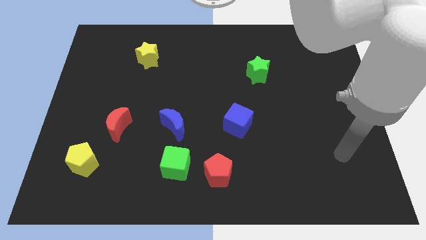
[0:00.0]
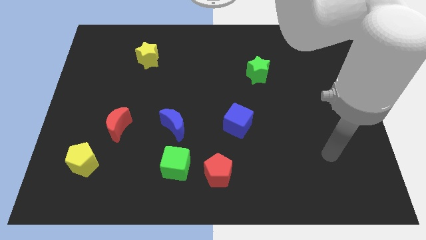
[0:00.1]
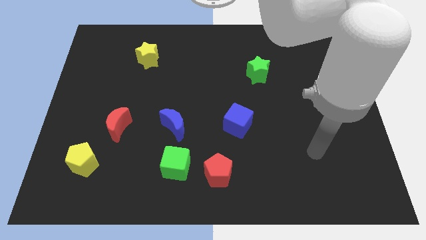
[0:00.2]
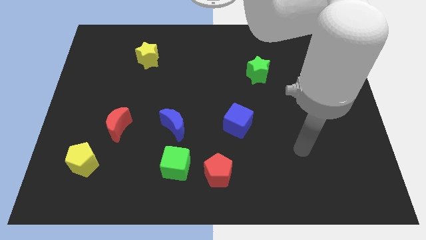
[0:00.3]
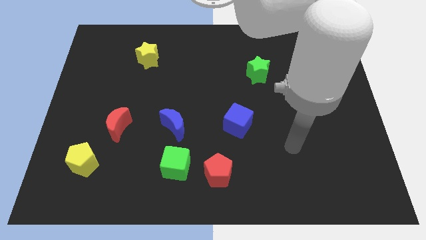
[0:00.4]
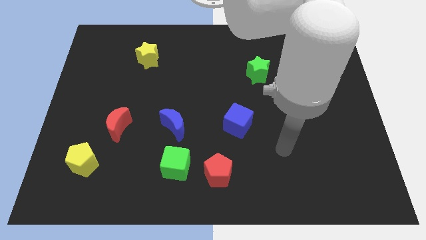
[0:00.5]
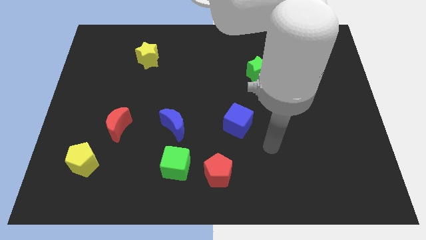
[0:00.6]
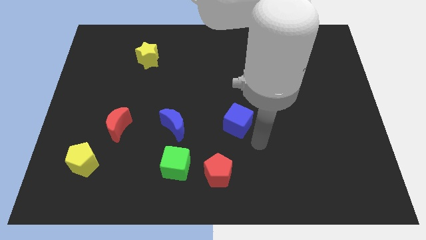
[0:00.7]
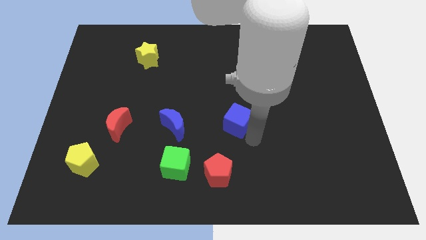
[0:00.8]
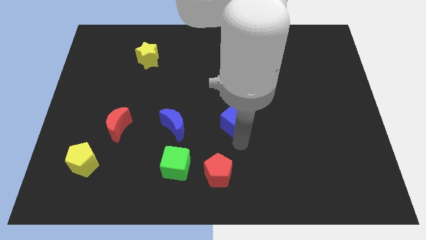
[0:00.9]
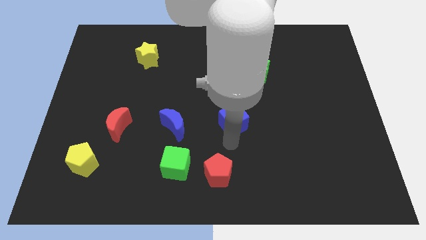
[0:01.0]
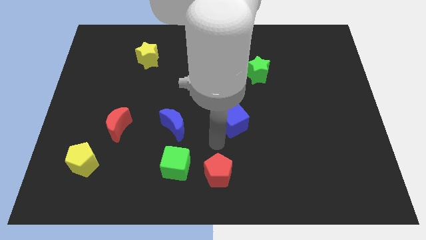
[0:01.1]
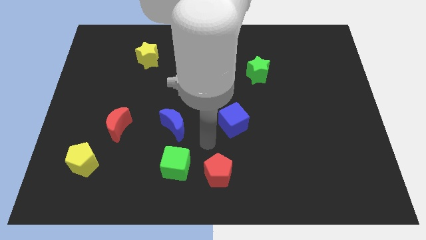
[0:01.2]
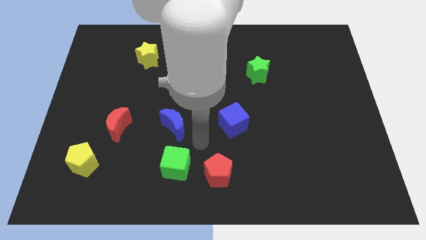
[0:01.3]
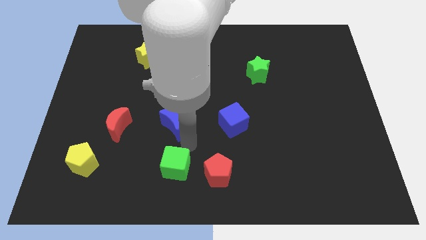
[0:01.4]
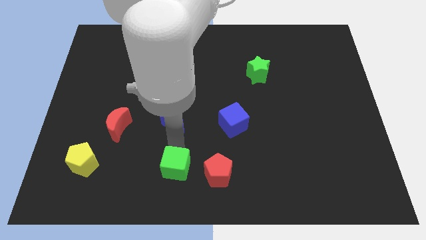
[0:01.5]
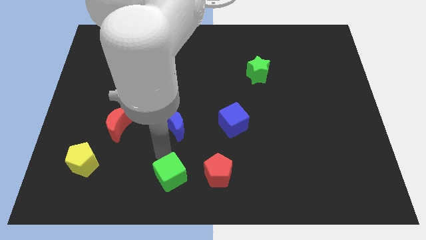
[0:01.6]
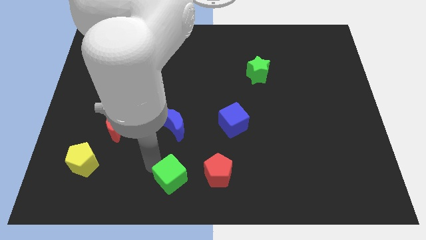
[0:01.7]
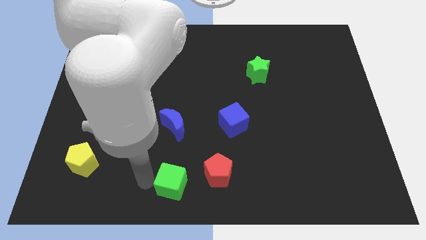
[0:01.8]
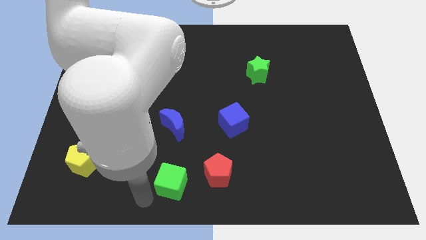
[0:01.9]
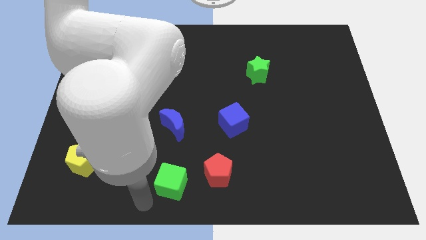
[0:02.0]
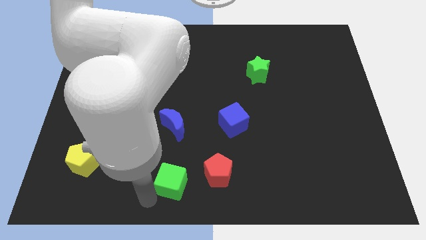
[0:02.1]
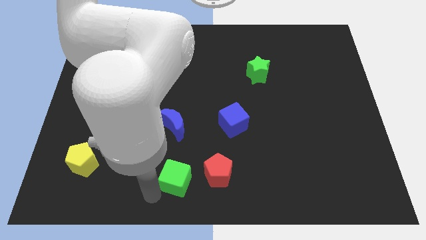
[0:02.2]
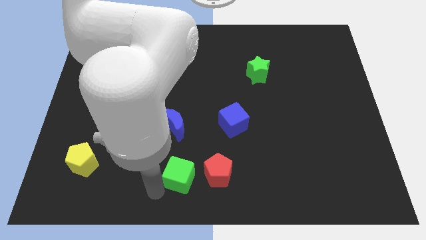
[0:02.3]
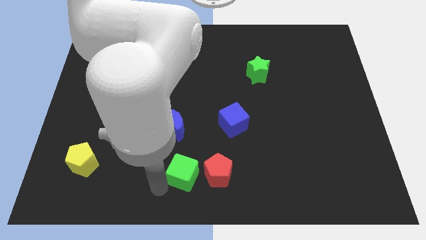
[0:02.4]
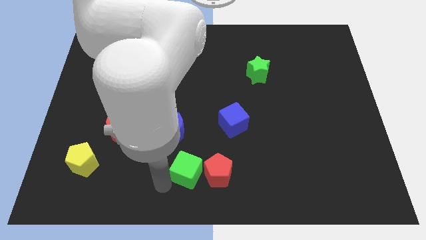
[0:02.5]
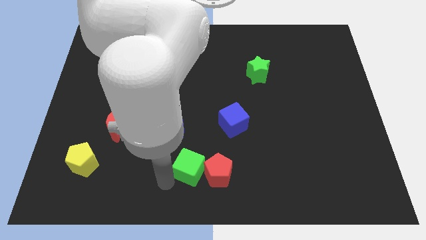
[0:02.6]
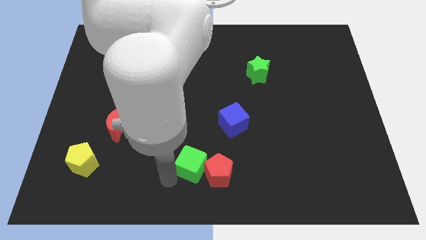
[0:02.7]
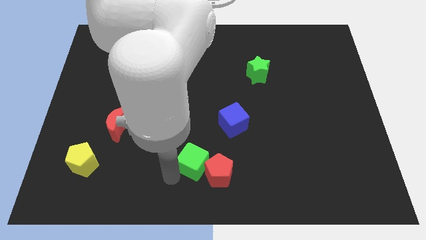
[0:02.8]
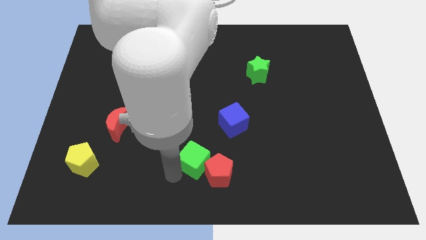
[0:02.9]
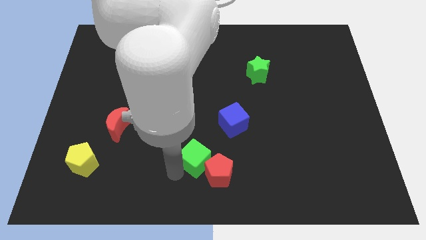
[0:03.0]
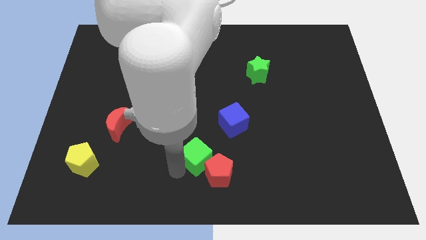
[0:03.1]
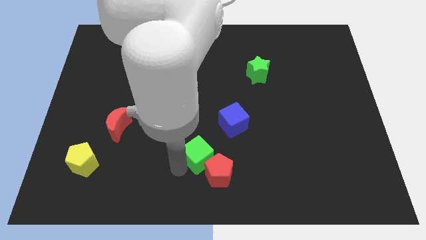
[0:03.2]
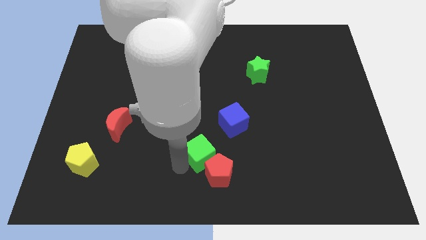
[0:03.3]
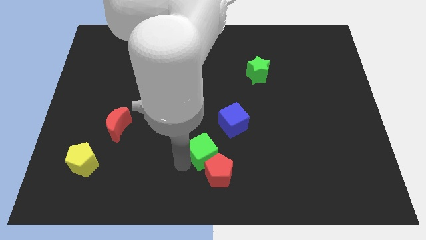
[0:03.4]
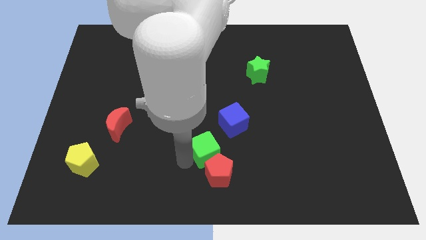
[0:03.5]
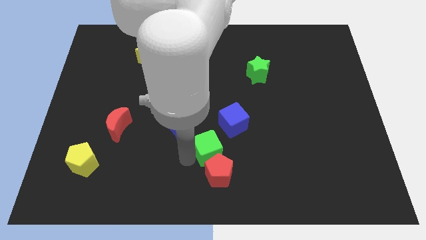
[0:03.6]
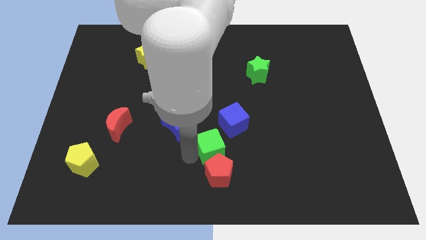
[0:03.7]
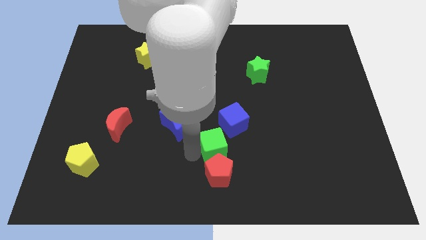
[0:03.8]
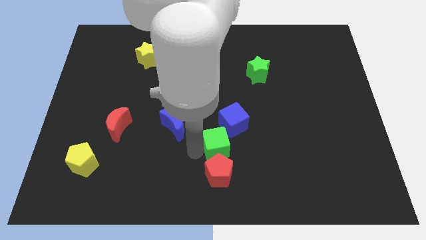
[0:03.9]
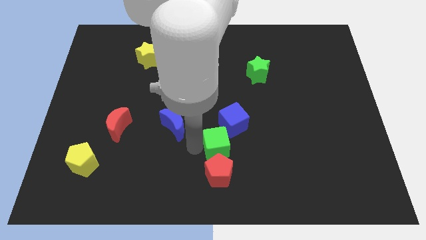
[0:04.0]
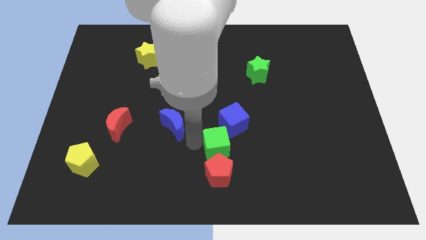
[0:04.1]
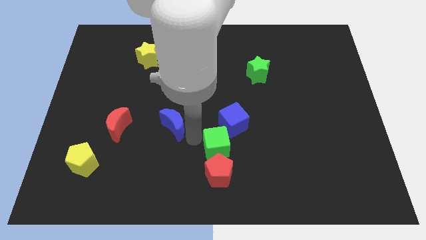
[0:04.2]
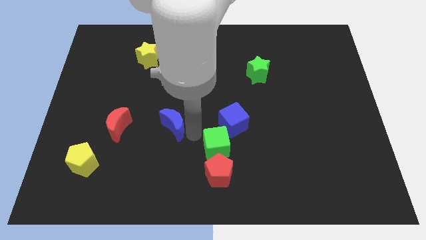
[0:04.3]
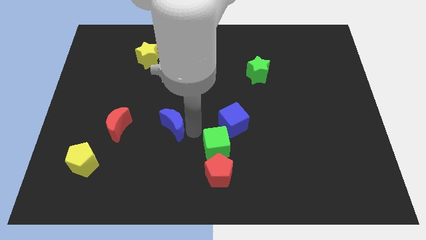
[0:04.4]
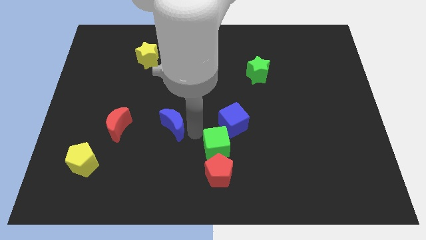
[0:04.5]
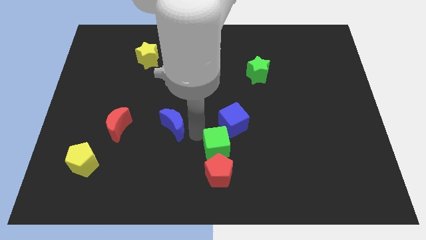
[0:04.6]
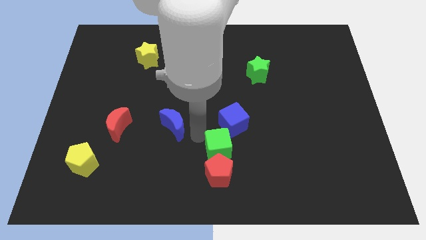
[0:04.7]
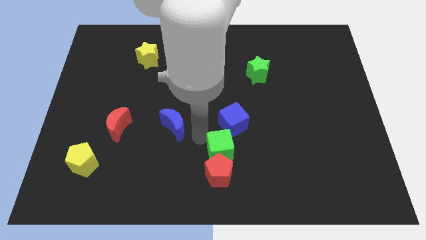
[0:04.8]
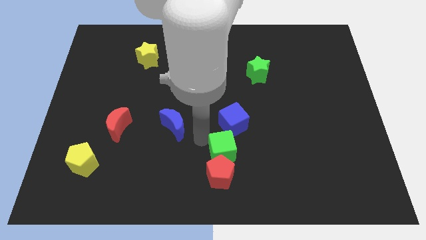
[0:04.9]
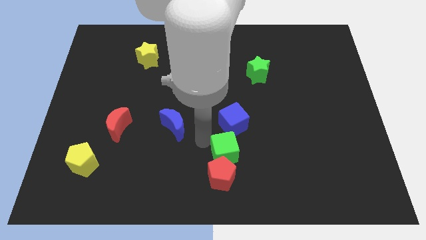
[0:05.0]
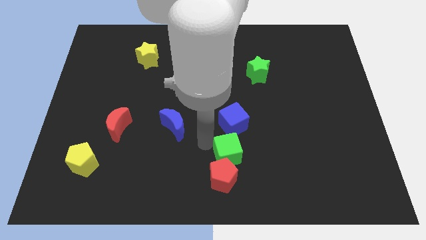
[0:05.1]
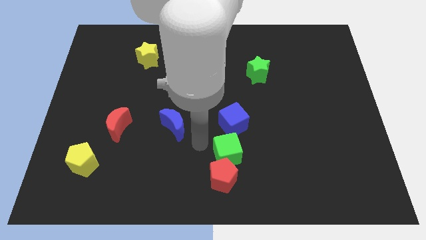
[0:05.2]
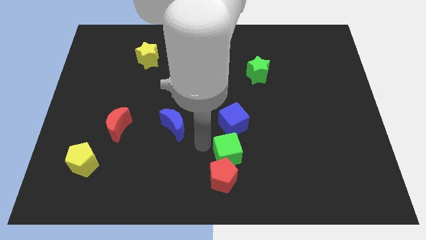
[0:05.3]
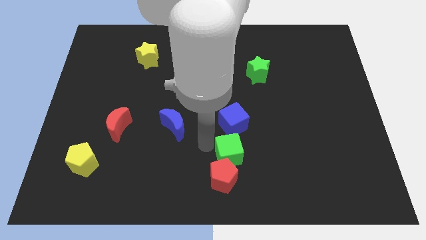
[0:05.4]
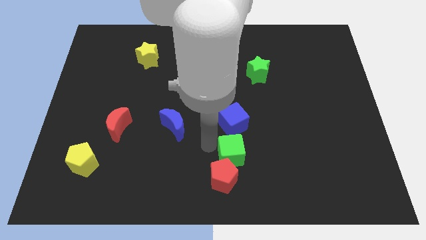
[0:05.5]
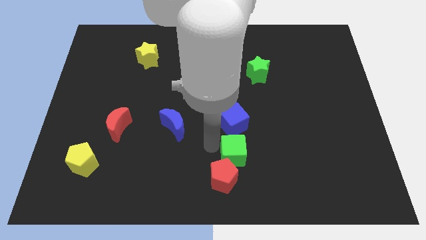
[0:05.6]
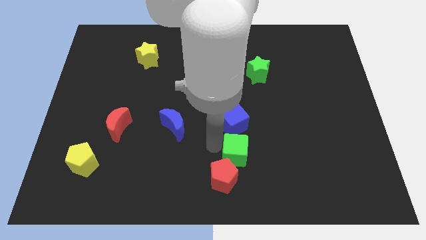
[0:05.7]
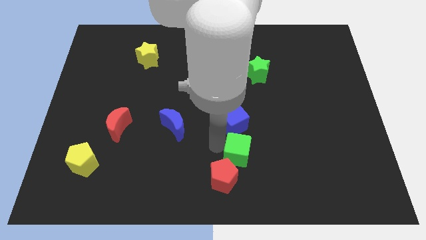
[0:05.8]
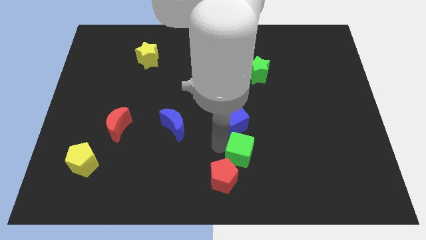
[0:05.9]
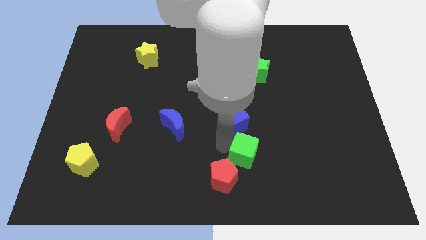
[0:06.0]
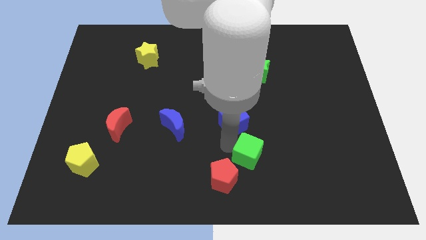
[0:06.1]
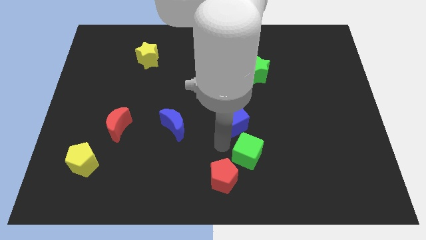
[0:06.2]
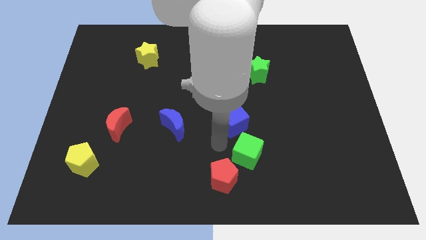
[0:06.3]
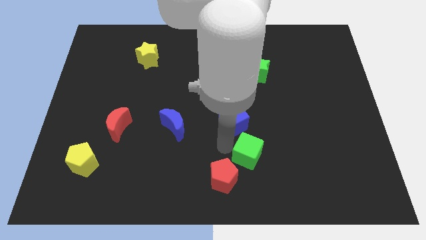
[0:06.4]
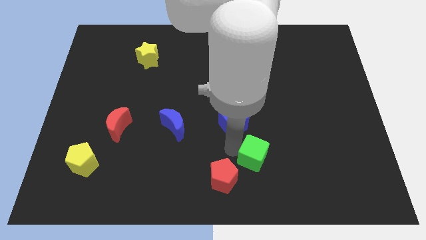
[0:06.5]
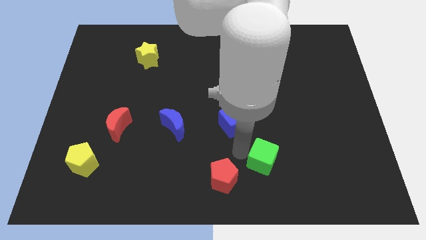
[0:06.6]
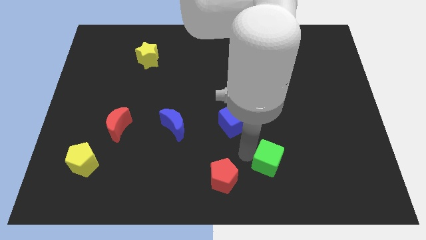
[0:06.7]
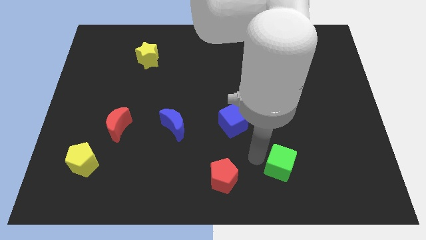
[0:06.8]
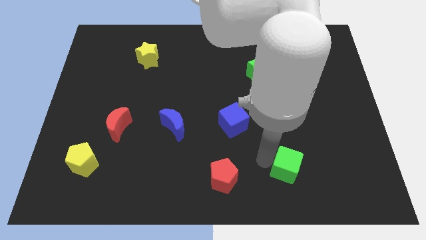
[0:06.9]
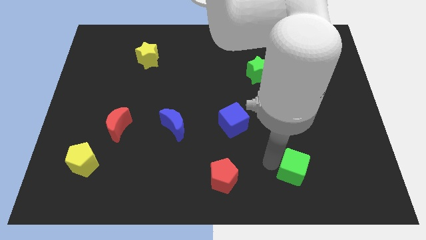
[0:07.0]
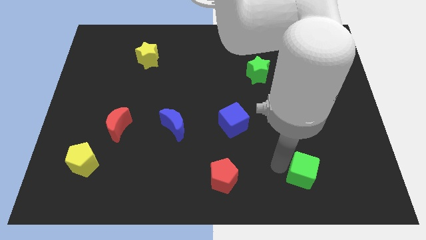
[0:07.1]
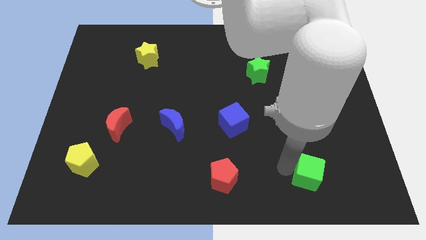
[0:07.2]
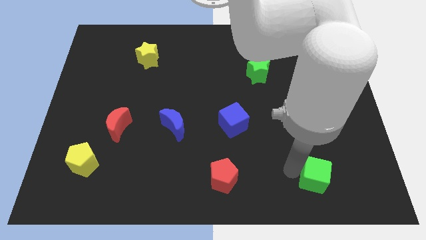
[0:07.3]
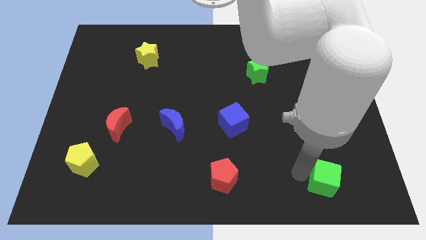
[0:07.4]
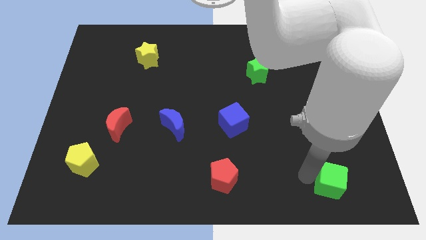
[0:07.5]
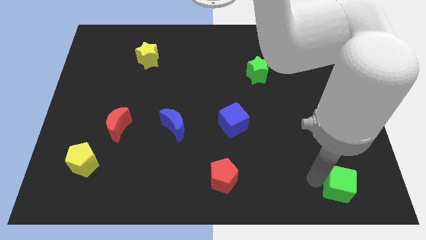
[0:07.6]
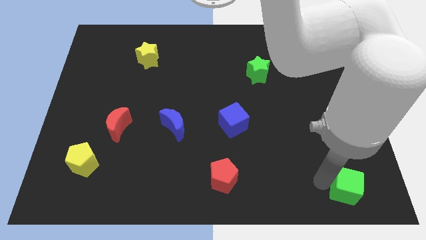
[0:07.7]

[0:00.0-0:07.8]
slide the green cube to the bottom right of the board
